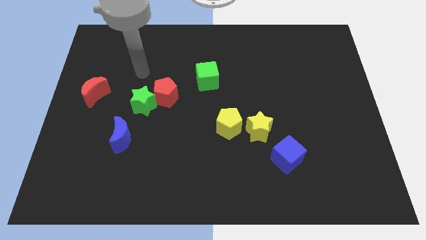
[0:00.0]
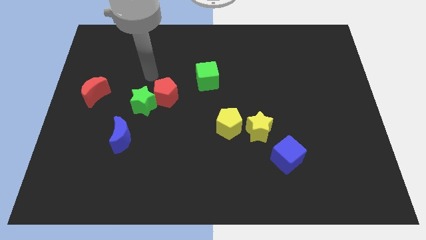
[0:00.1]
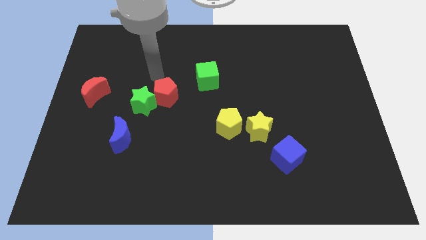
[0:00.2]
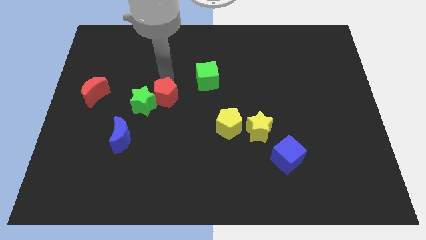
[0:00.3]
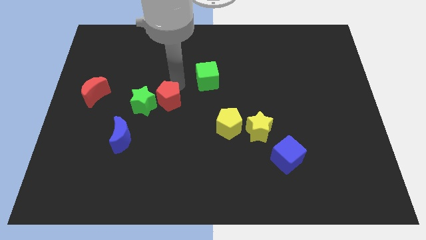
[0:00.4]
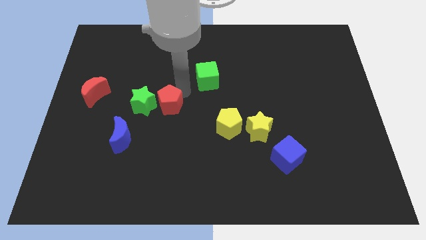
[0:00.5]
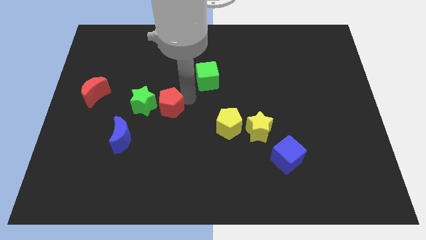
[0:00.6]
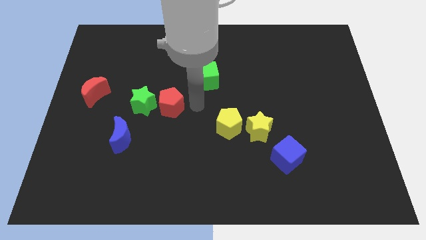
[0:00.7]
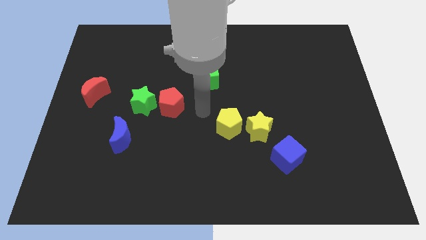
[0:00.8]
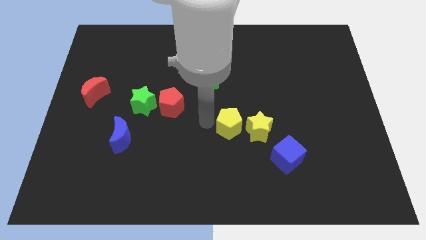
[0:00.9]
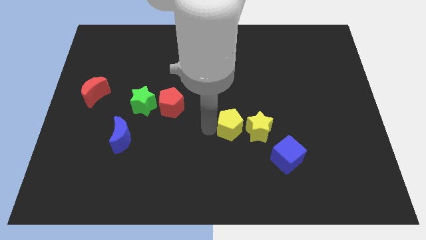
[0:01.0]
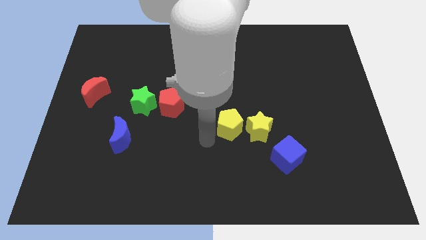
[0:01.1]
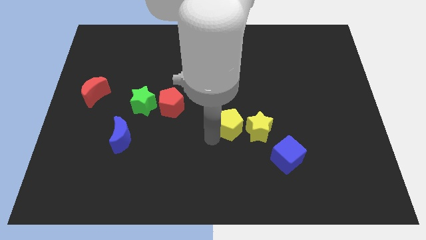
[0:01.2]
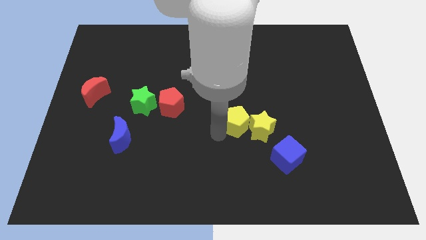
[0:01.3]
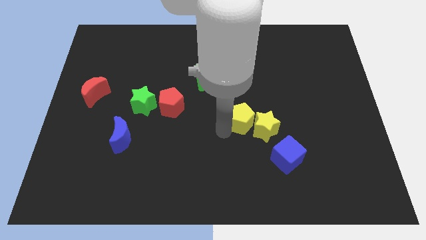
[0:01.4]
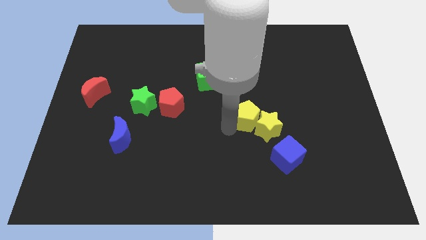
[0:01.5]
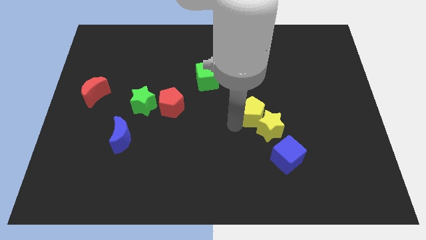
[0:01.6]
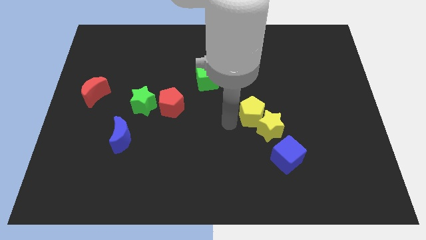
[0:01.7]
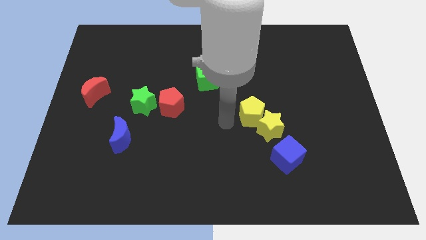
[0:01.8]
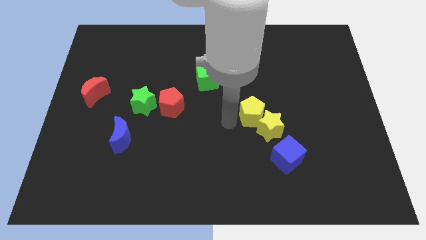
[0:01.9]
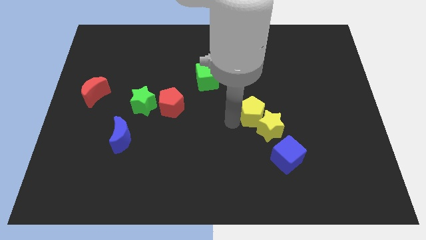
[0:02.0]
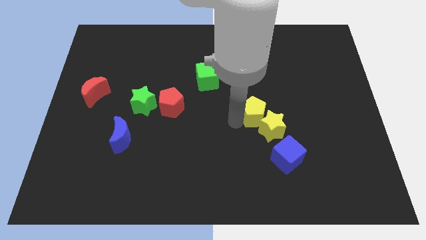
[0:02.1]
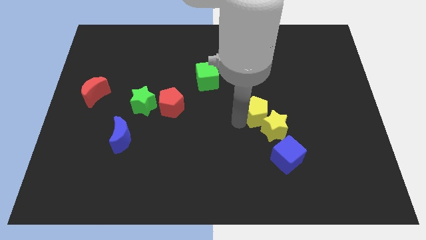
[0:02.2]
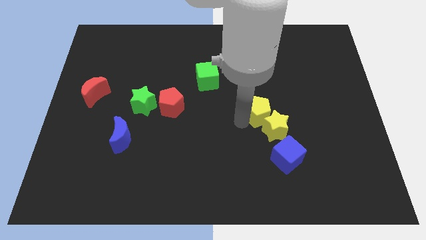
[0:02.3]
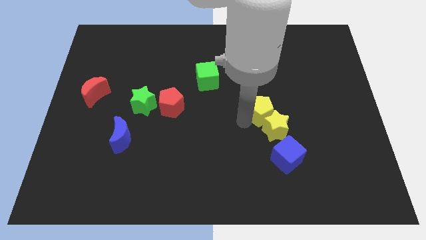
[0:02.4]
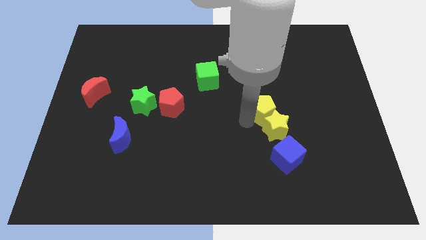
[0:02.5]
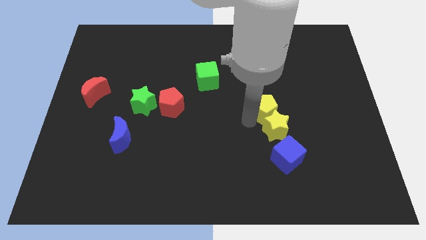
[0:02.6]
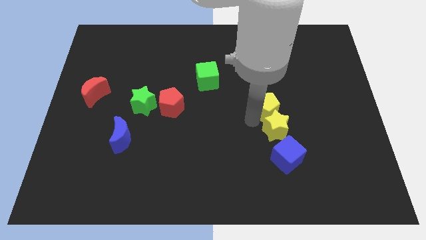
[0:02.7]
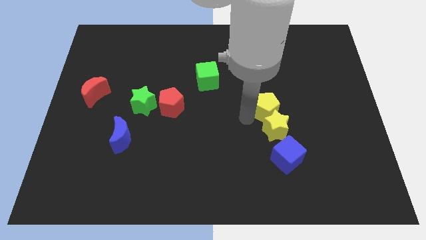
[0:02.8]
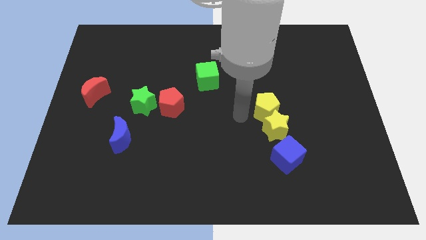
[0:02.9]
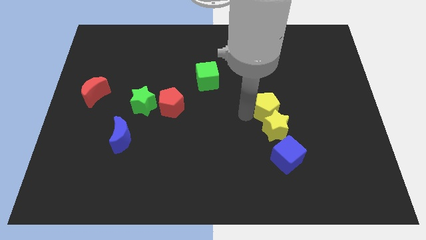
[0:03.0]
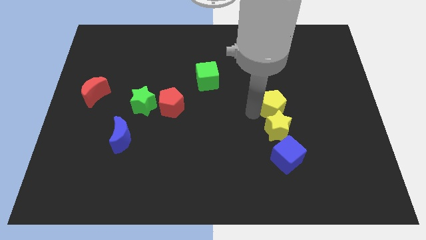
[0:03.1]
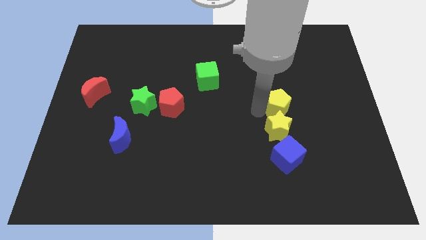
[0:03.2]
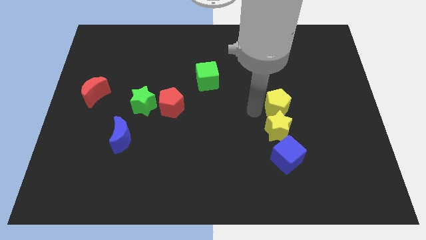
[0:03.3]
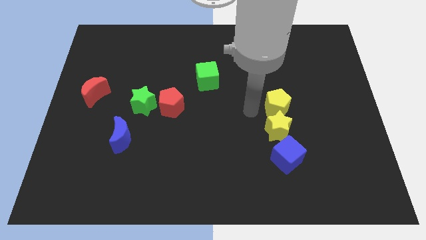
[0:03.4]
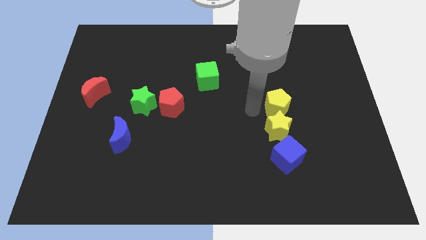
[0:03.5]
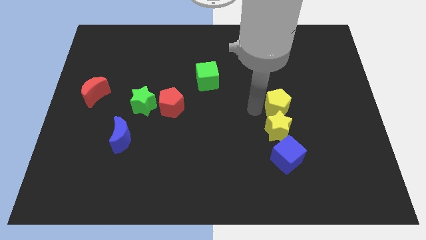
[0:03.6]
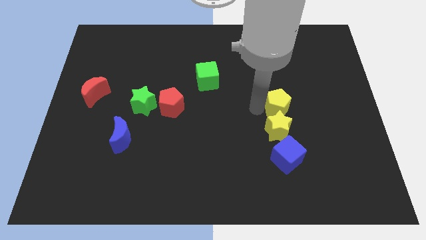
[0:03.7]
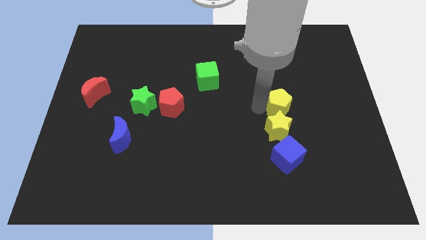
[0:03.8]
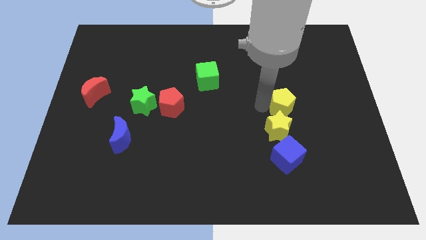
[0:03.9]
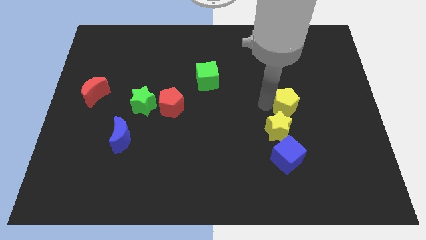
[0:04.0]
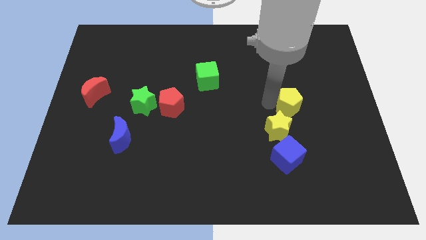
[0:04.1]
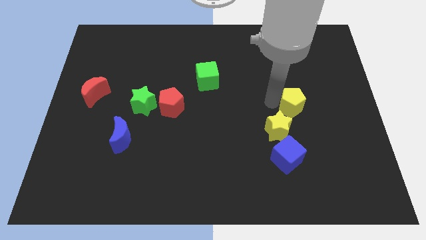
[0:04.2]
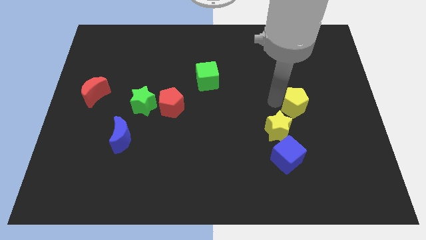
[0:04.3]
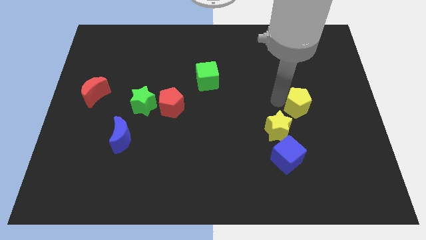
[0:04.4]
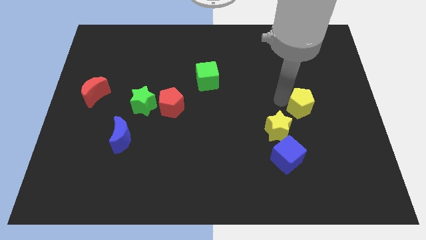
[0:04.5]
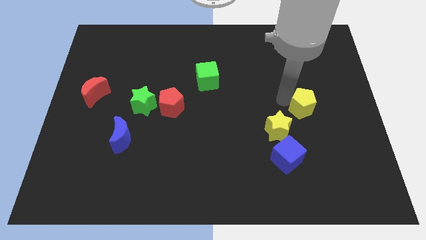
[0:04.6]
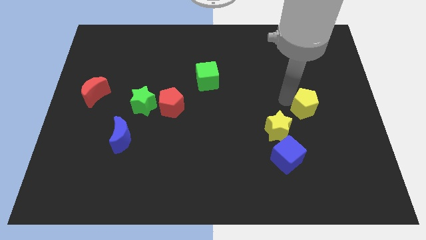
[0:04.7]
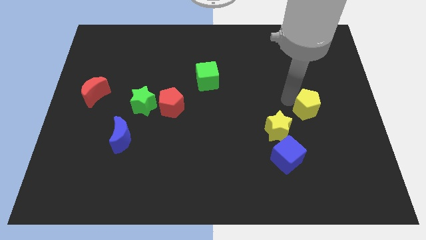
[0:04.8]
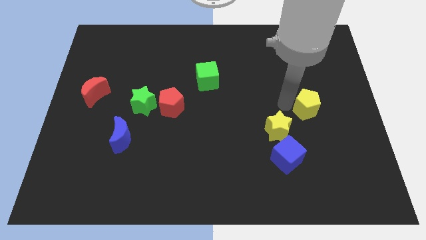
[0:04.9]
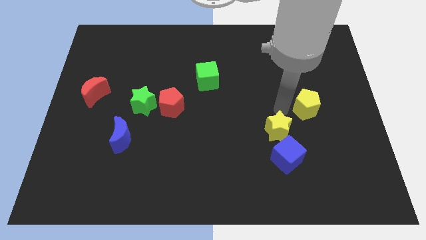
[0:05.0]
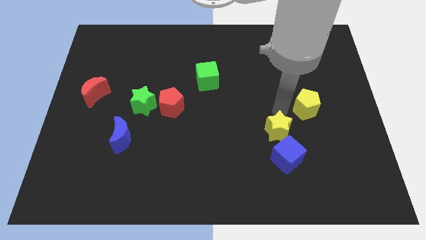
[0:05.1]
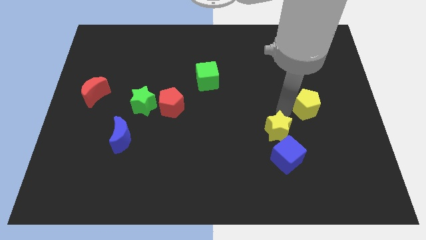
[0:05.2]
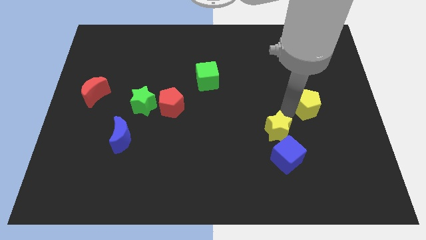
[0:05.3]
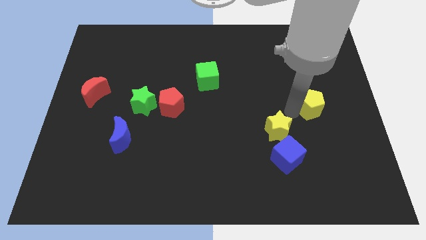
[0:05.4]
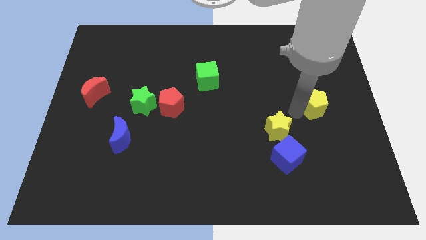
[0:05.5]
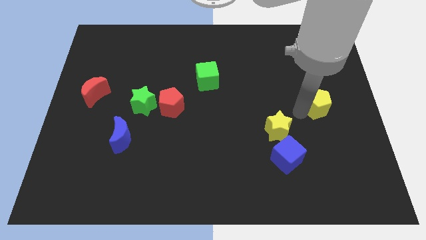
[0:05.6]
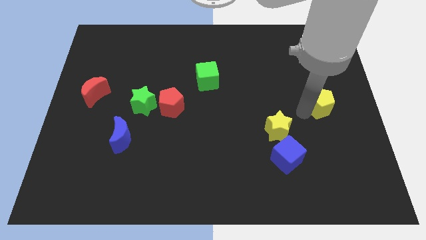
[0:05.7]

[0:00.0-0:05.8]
slide the yellow pentagon to the right side

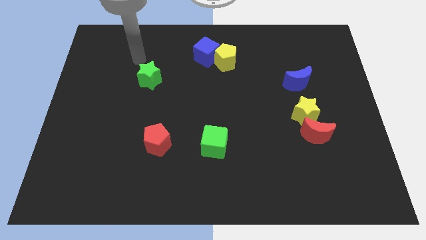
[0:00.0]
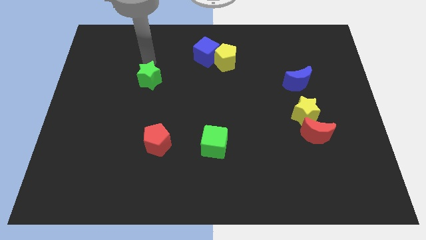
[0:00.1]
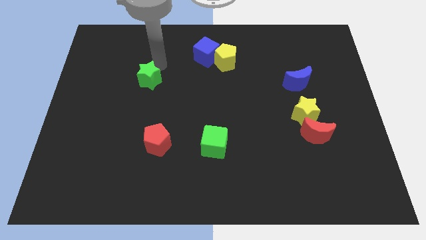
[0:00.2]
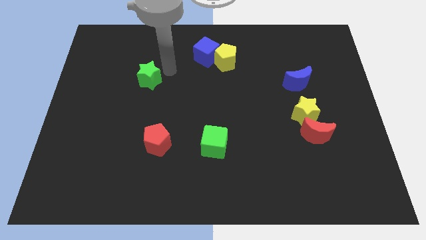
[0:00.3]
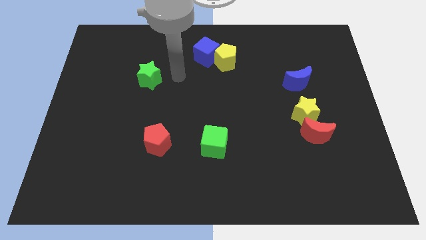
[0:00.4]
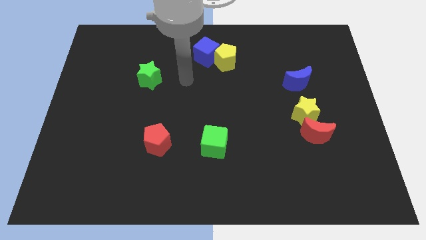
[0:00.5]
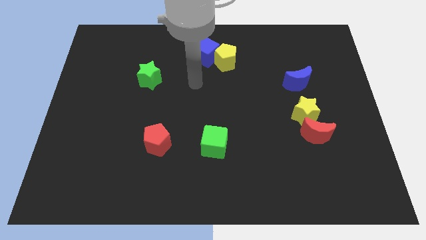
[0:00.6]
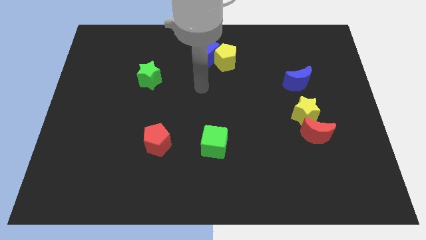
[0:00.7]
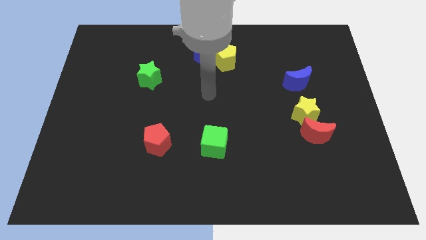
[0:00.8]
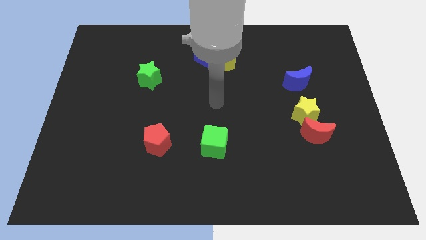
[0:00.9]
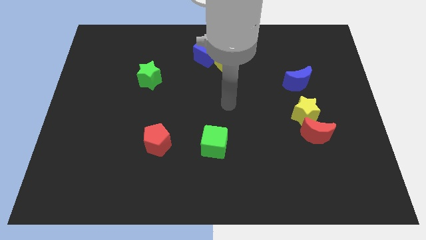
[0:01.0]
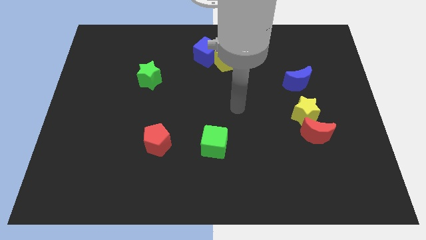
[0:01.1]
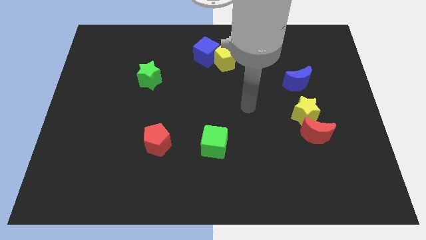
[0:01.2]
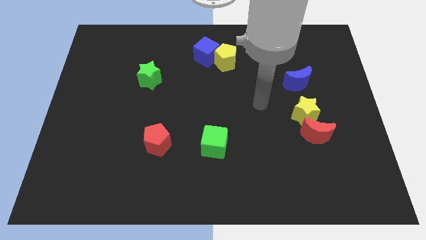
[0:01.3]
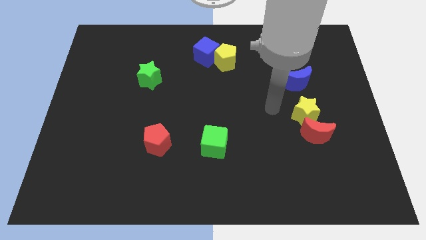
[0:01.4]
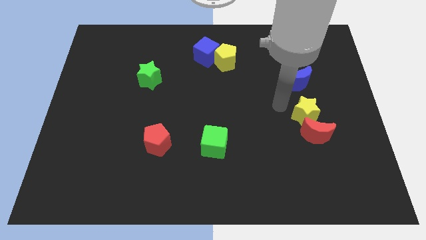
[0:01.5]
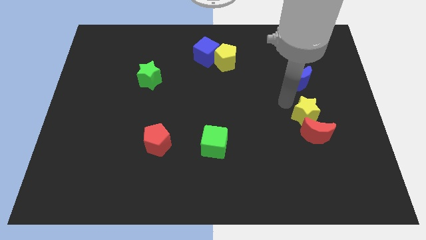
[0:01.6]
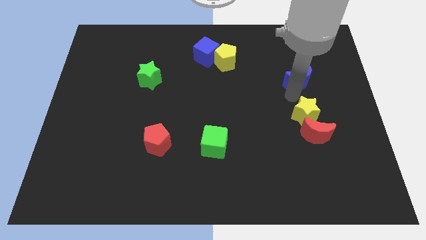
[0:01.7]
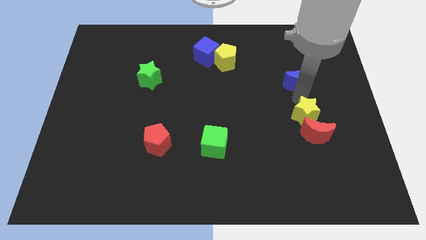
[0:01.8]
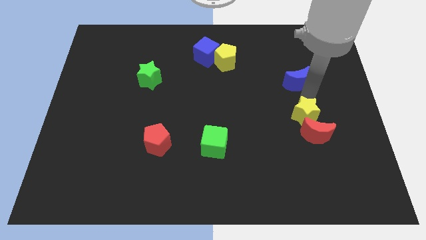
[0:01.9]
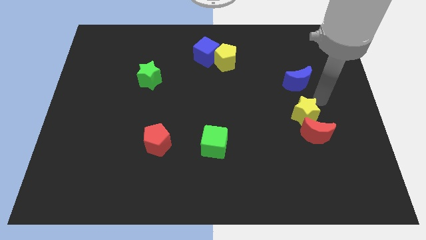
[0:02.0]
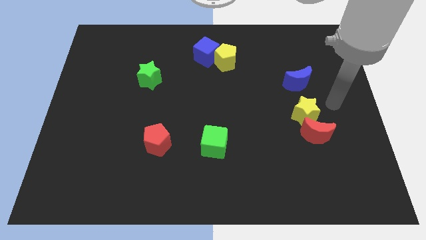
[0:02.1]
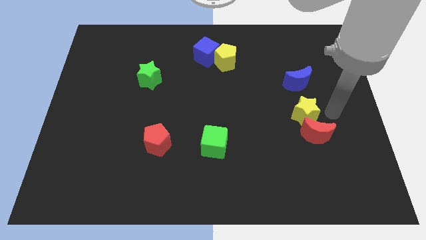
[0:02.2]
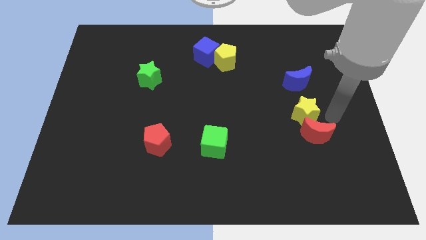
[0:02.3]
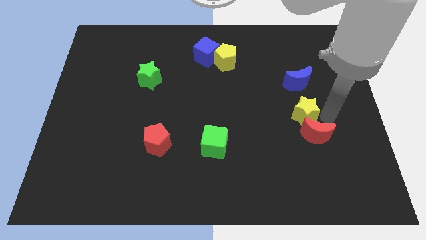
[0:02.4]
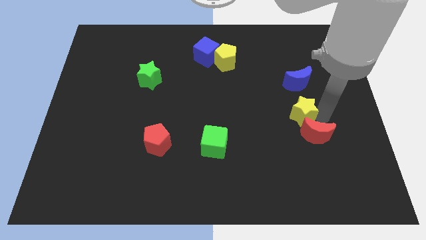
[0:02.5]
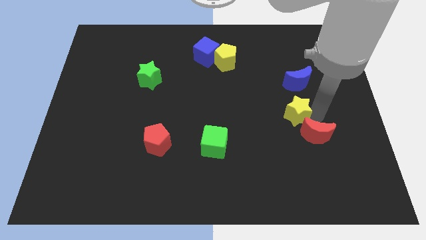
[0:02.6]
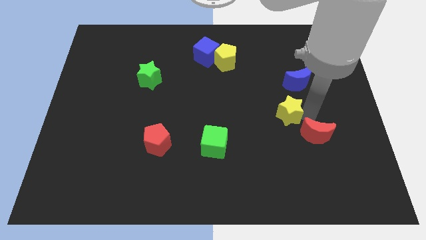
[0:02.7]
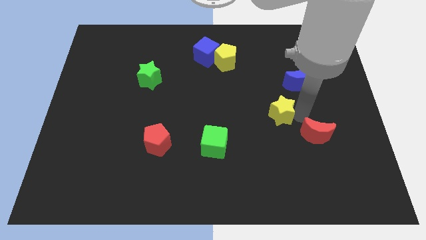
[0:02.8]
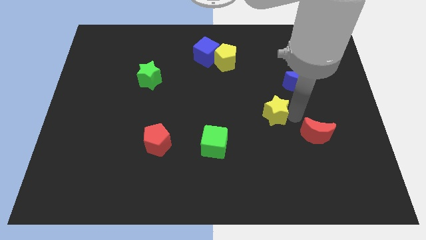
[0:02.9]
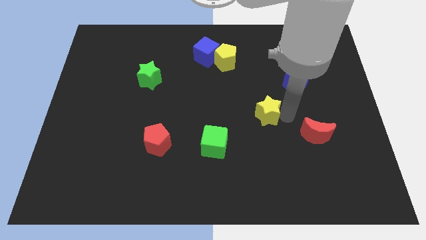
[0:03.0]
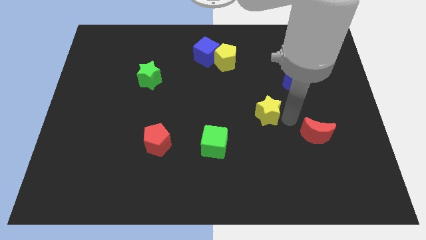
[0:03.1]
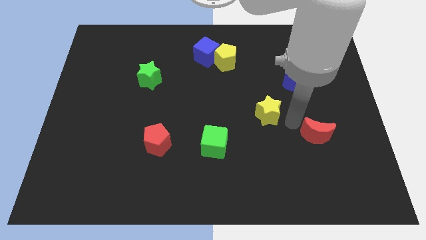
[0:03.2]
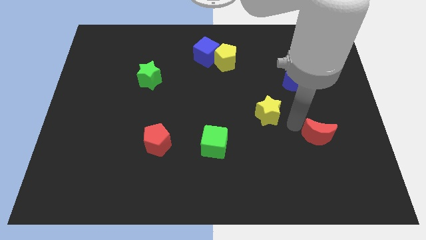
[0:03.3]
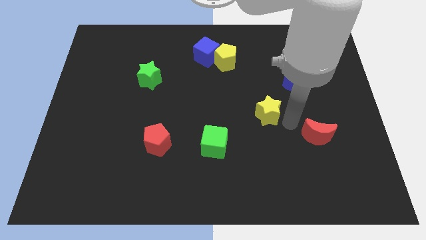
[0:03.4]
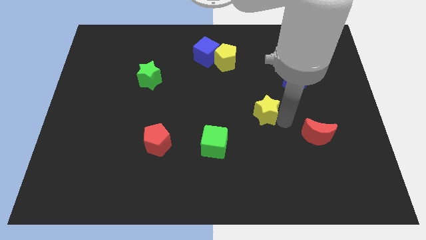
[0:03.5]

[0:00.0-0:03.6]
put the yellow star to the middle of the board
